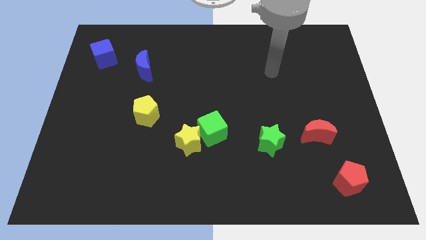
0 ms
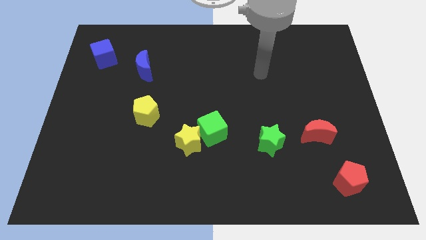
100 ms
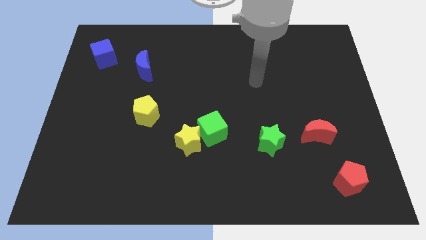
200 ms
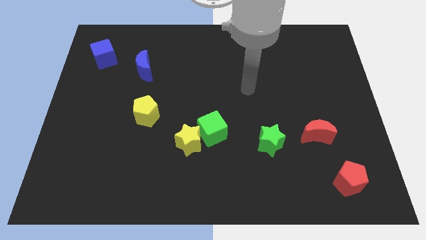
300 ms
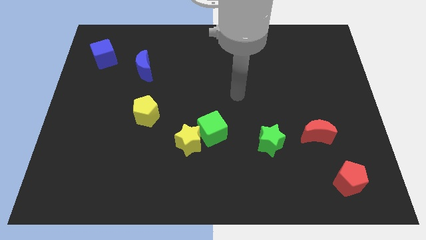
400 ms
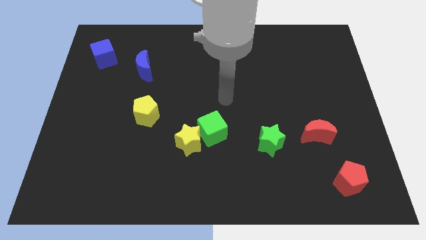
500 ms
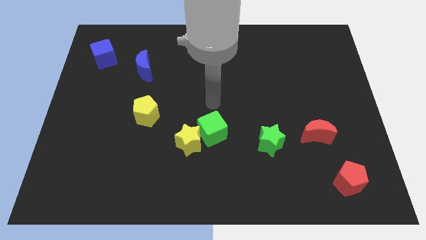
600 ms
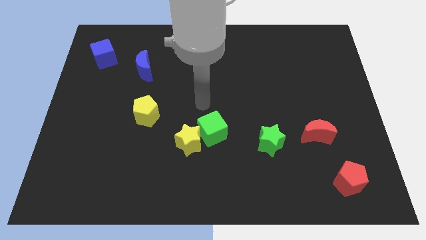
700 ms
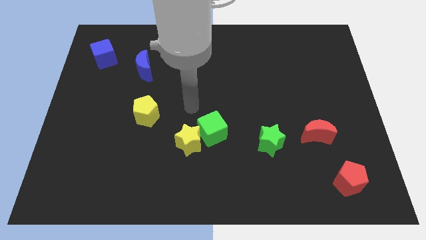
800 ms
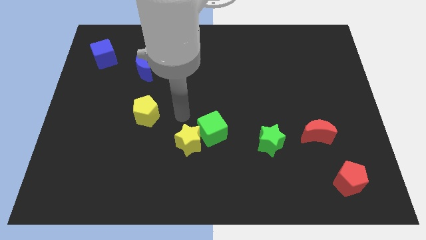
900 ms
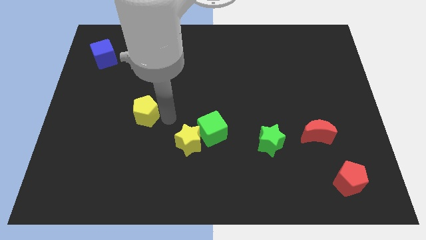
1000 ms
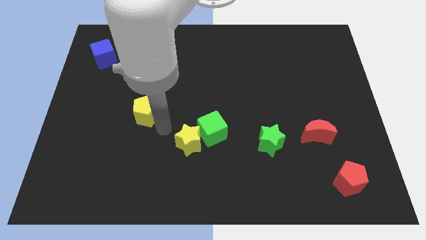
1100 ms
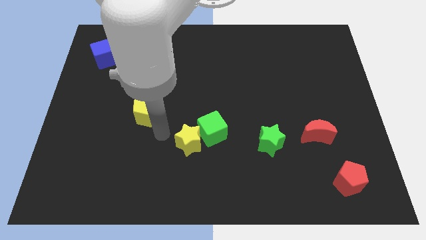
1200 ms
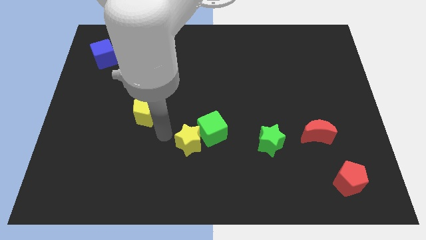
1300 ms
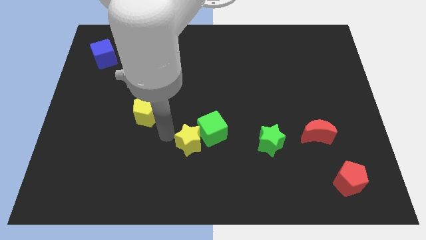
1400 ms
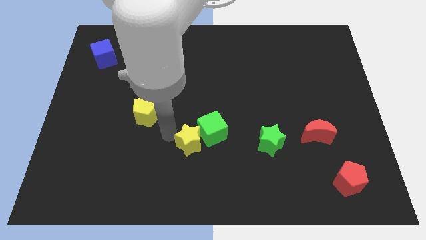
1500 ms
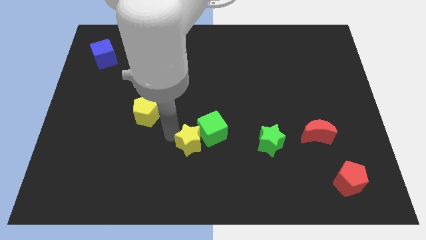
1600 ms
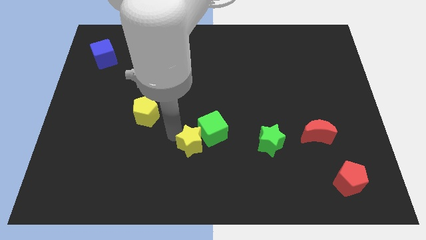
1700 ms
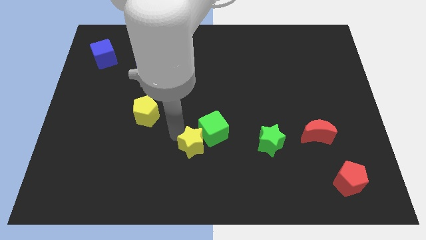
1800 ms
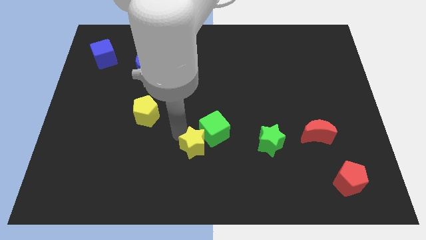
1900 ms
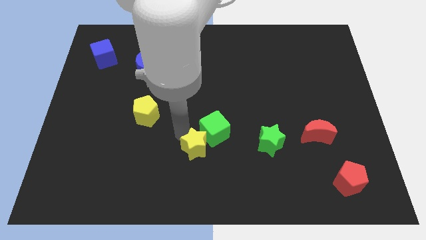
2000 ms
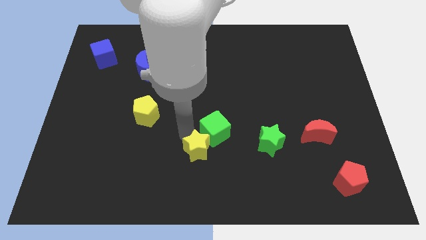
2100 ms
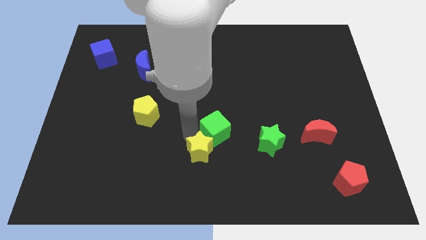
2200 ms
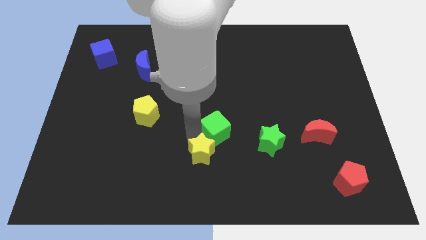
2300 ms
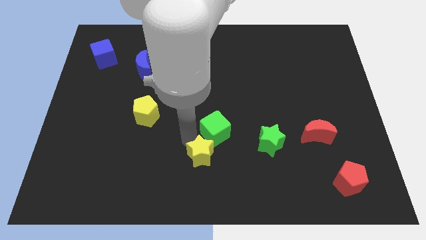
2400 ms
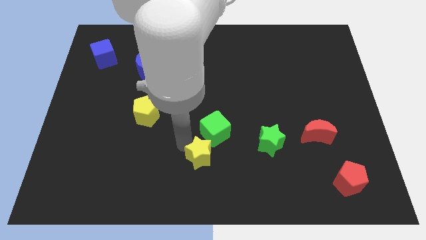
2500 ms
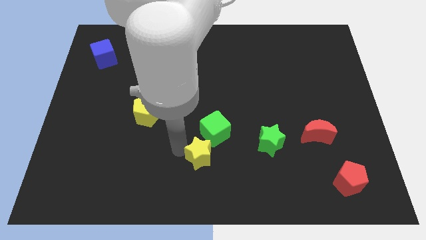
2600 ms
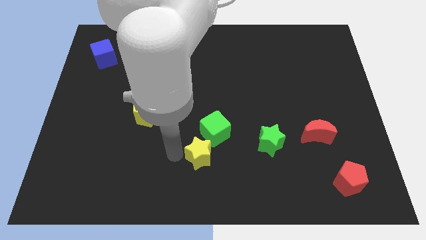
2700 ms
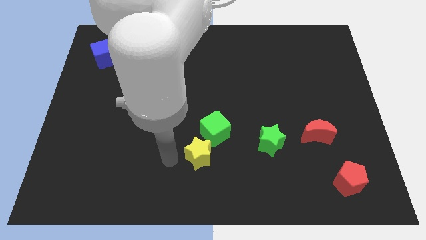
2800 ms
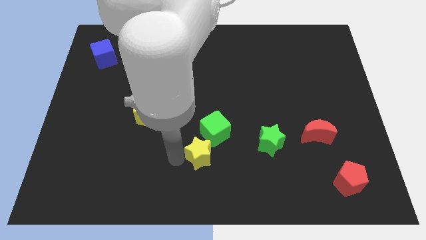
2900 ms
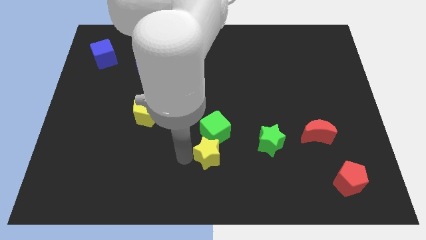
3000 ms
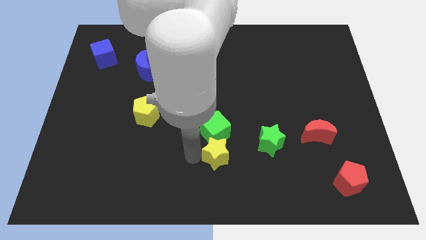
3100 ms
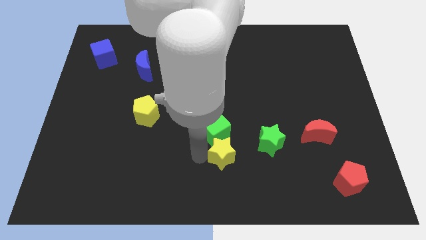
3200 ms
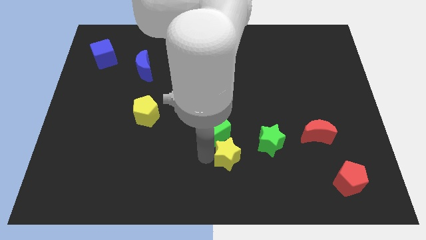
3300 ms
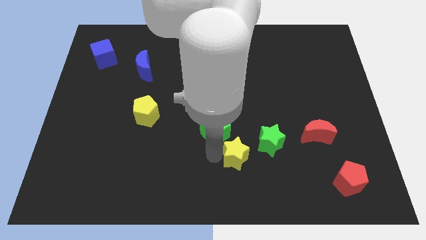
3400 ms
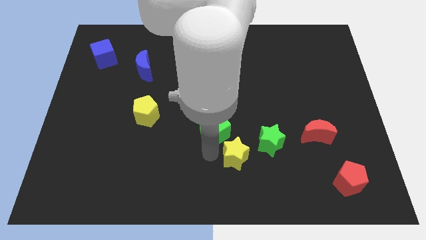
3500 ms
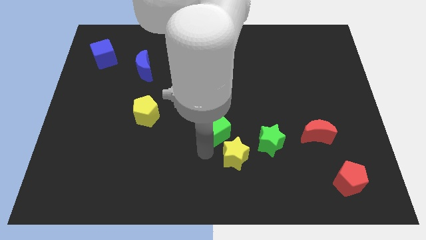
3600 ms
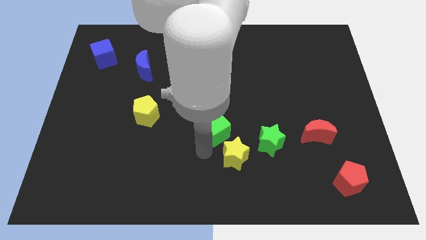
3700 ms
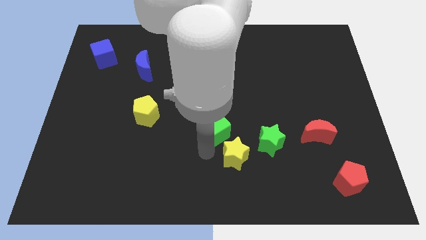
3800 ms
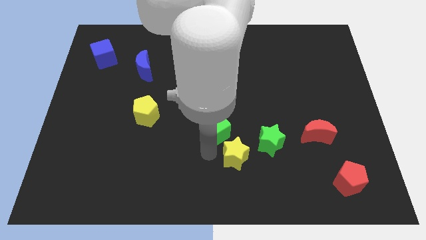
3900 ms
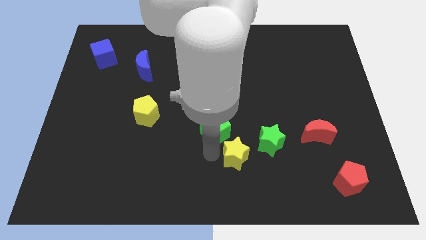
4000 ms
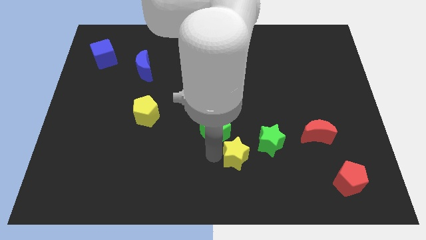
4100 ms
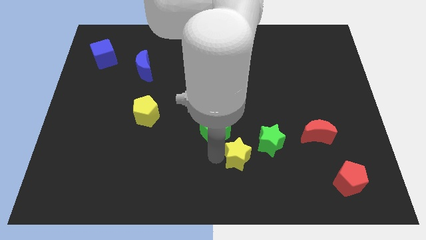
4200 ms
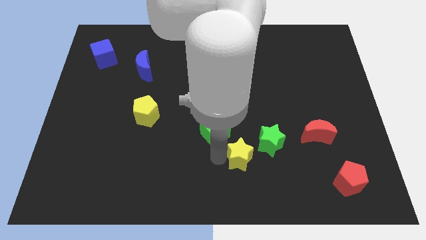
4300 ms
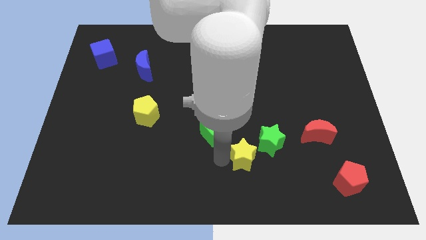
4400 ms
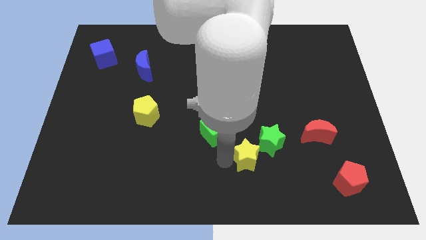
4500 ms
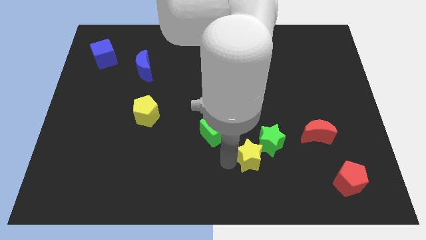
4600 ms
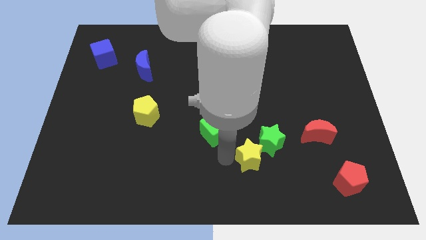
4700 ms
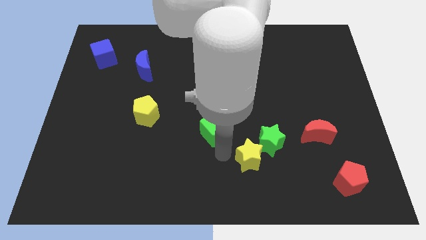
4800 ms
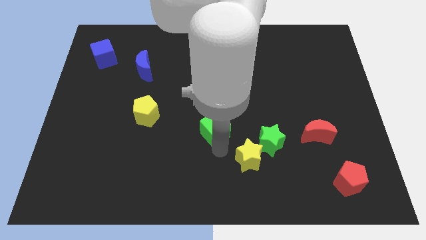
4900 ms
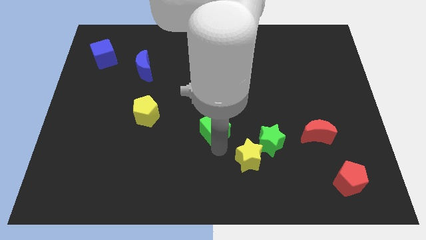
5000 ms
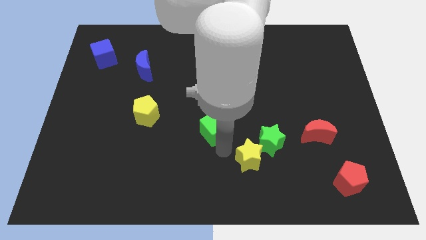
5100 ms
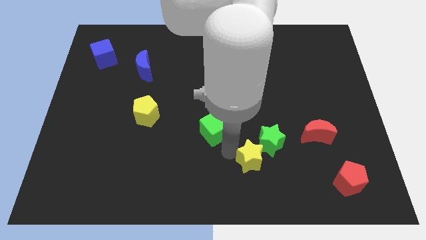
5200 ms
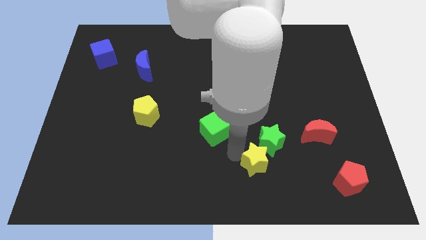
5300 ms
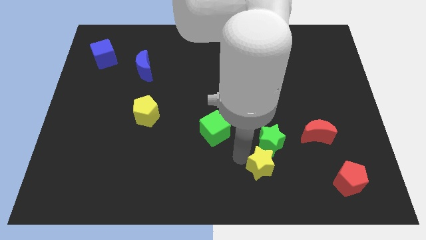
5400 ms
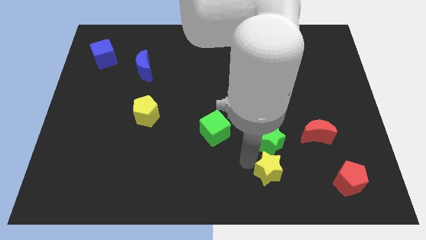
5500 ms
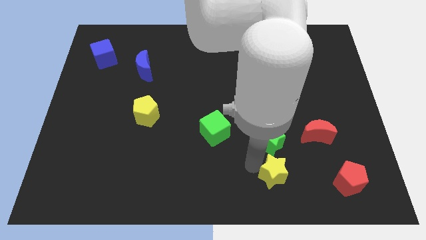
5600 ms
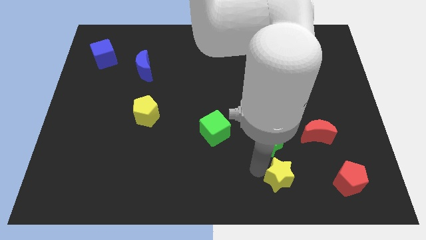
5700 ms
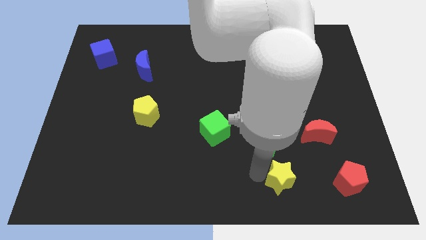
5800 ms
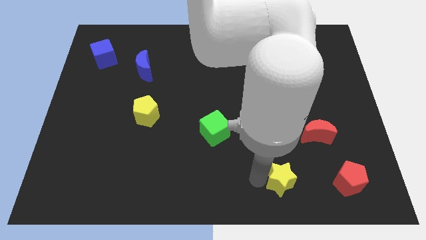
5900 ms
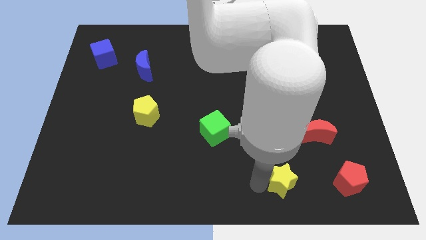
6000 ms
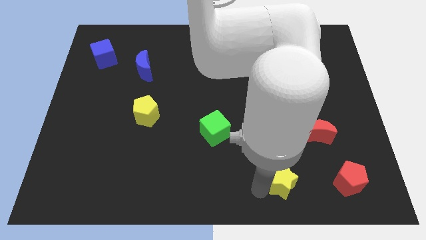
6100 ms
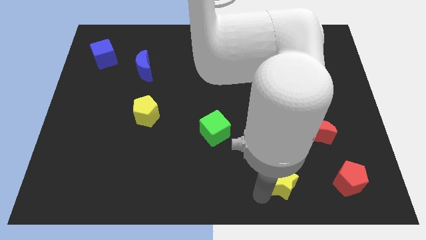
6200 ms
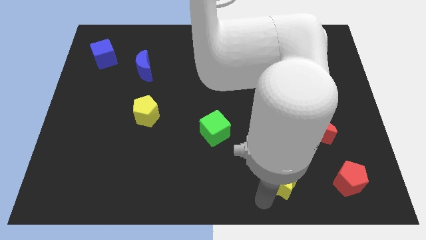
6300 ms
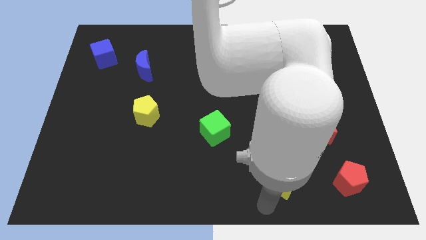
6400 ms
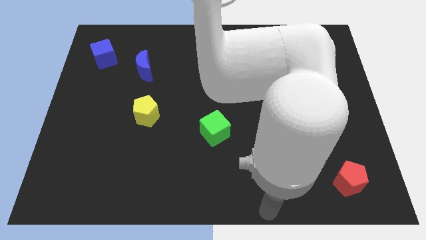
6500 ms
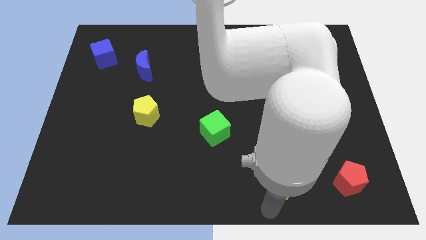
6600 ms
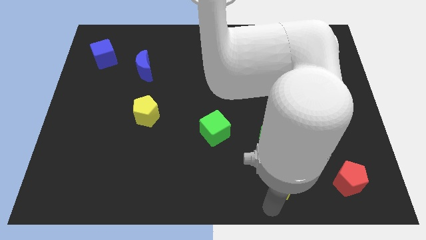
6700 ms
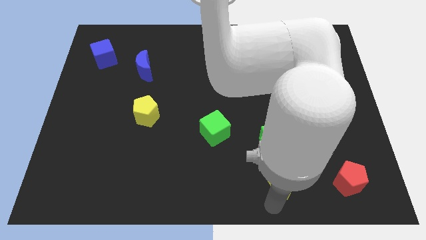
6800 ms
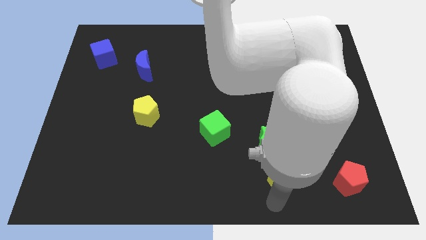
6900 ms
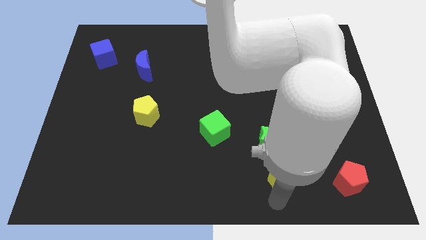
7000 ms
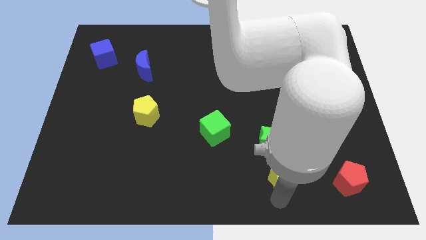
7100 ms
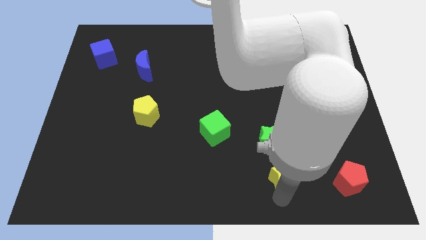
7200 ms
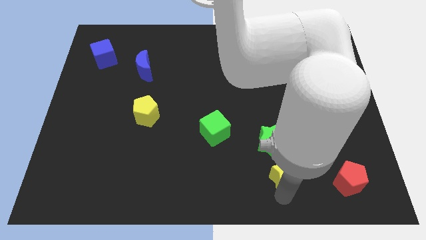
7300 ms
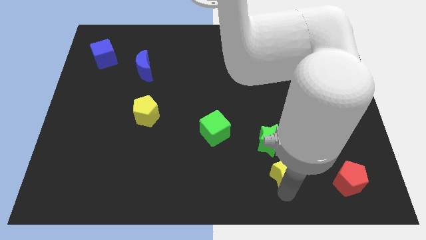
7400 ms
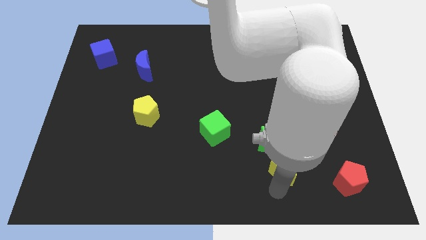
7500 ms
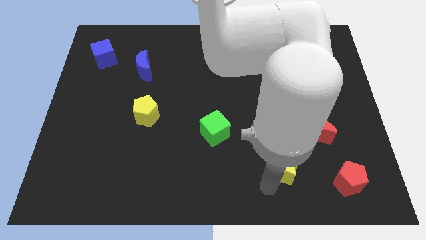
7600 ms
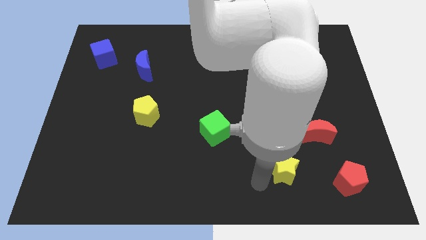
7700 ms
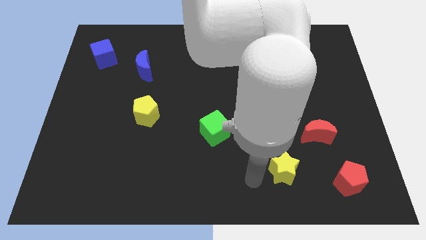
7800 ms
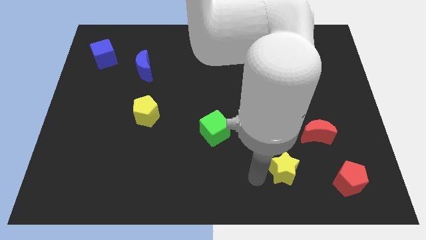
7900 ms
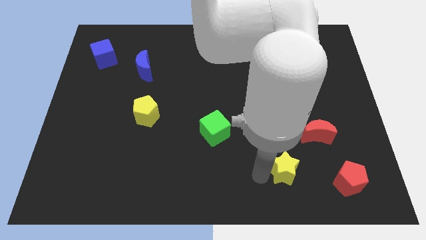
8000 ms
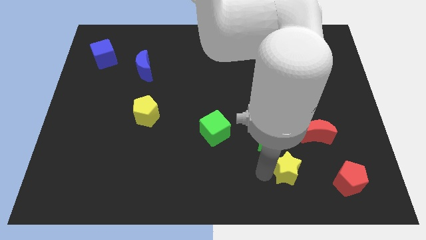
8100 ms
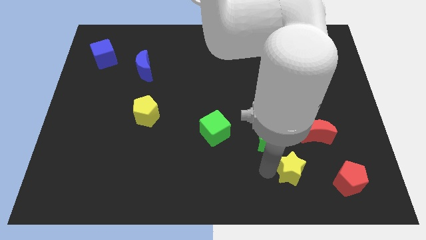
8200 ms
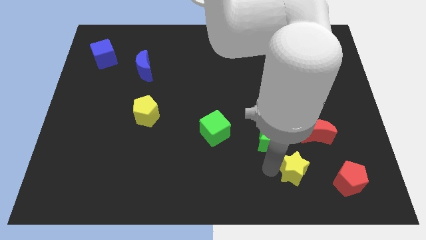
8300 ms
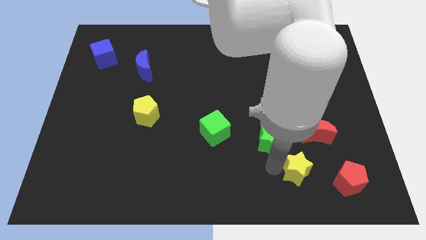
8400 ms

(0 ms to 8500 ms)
slide the yellow star right
